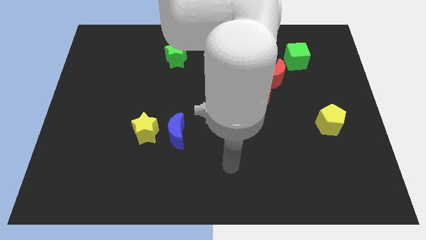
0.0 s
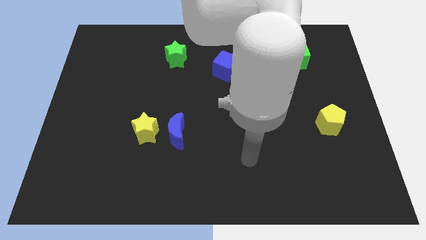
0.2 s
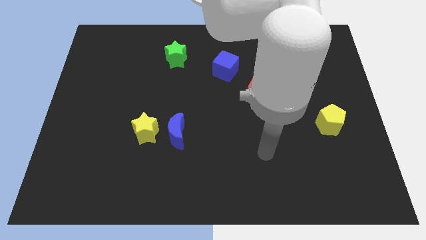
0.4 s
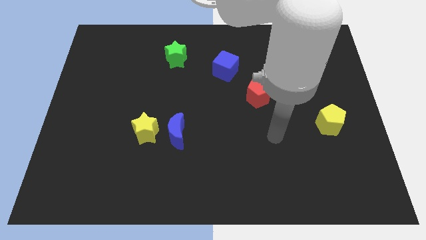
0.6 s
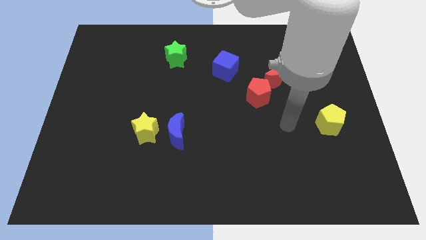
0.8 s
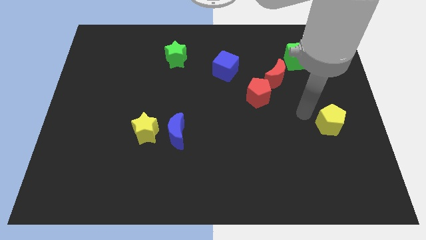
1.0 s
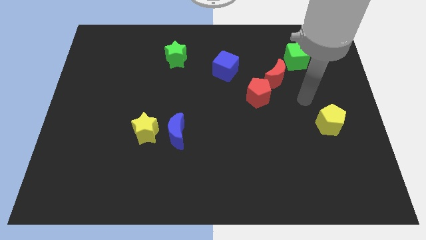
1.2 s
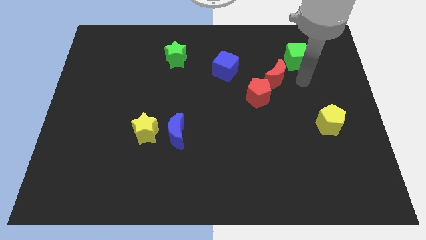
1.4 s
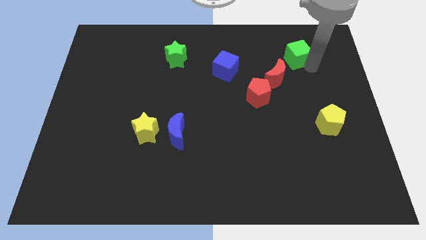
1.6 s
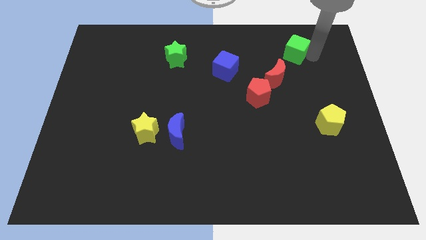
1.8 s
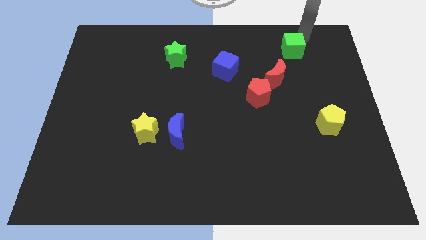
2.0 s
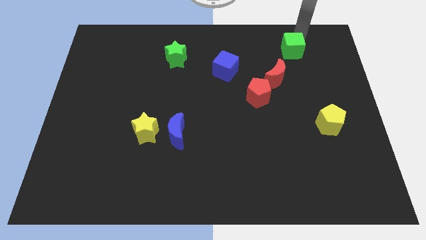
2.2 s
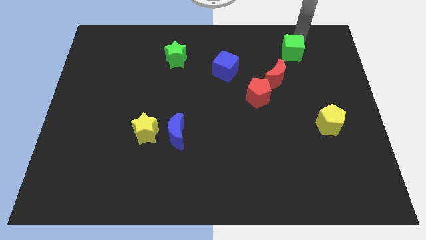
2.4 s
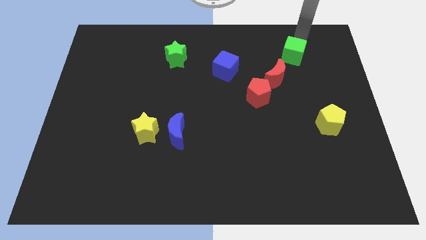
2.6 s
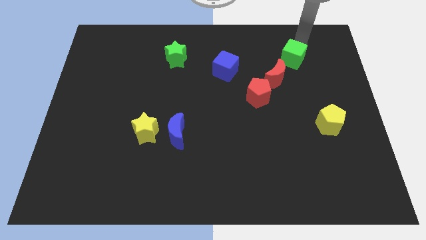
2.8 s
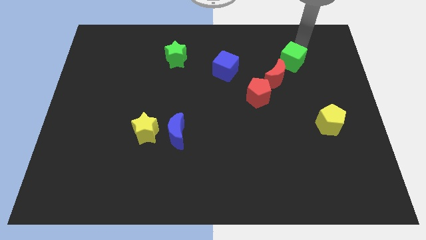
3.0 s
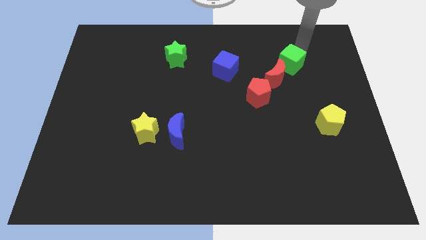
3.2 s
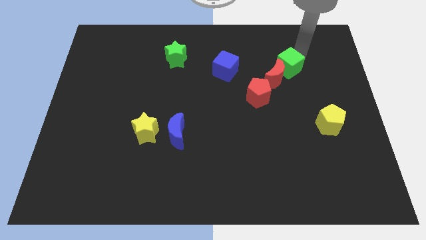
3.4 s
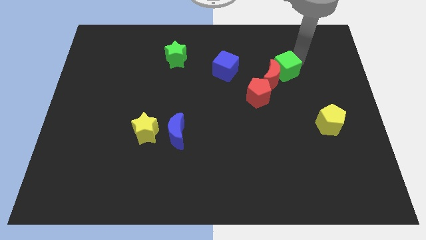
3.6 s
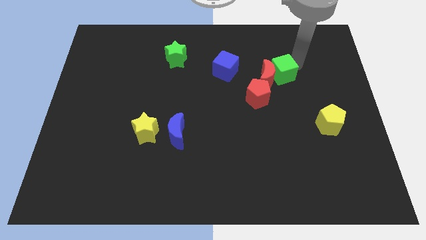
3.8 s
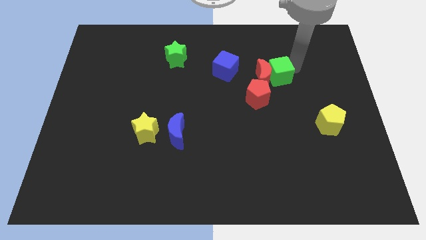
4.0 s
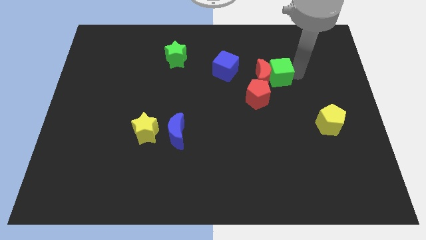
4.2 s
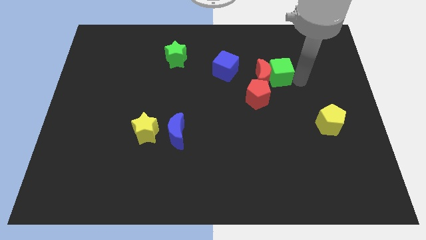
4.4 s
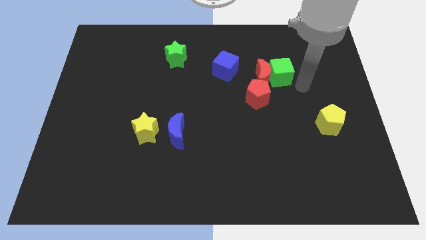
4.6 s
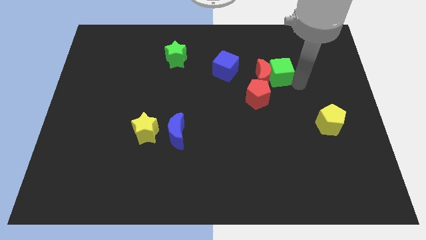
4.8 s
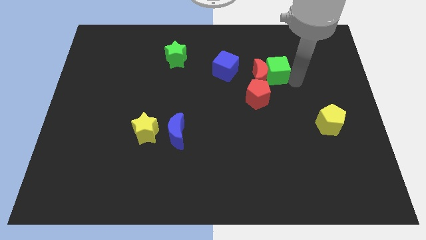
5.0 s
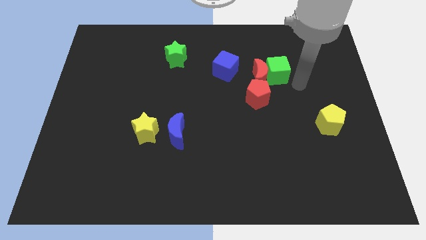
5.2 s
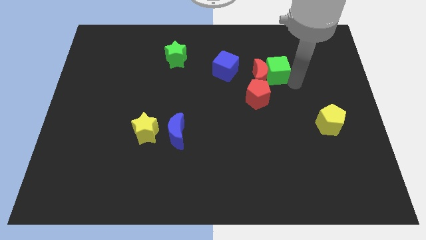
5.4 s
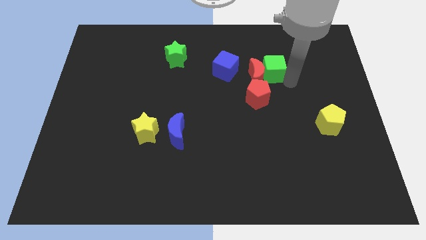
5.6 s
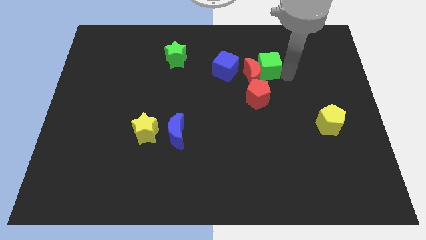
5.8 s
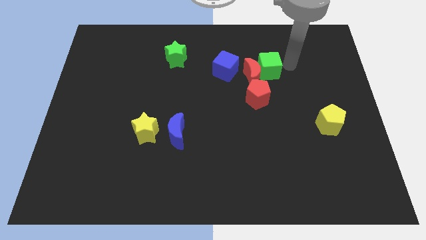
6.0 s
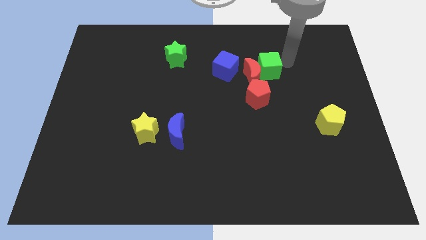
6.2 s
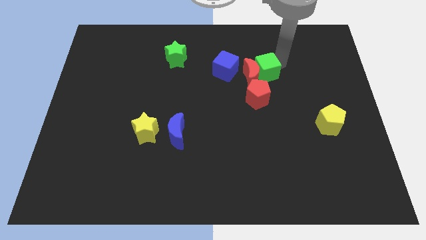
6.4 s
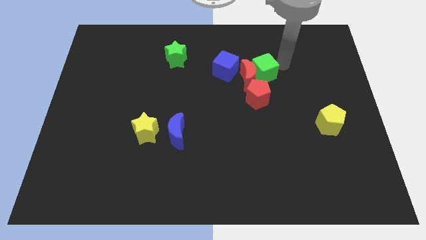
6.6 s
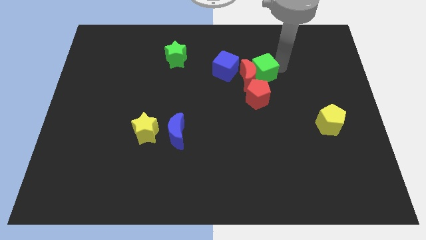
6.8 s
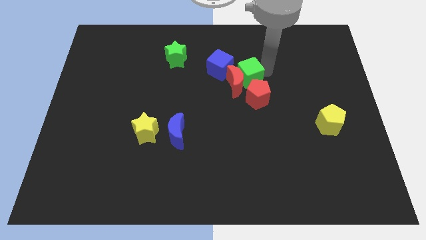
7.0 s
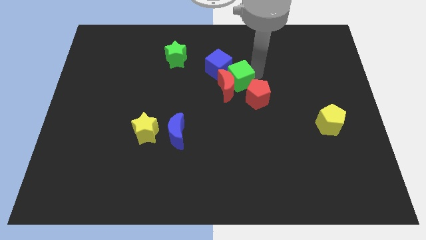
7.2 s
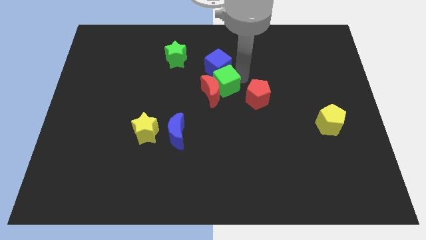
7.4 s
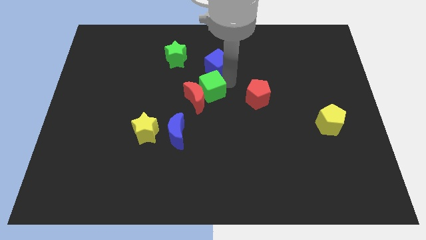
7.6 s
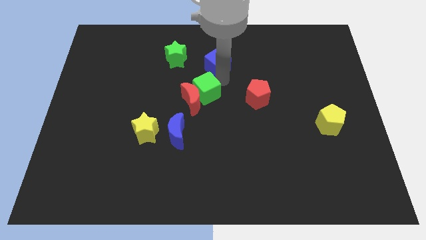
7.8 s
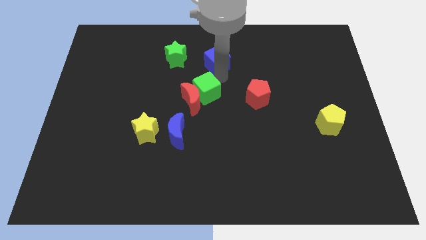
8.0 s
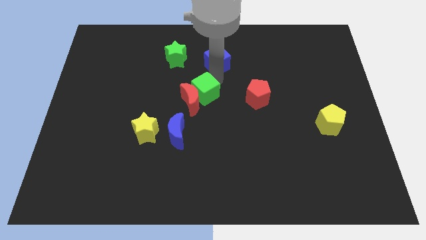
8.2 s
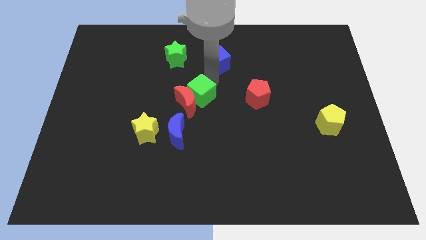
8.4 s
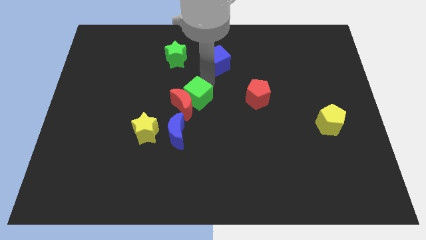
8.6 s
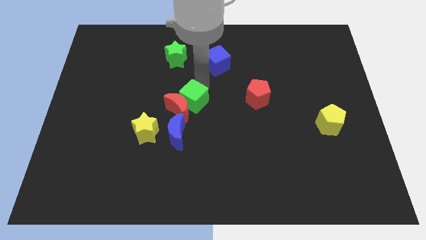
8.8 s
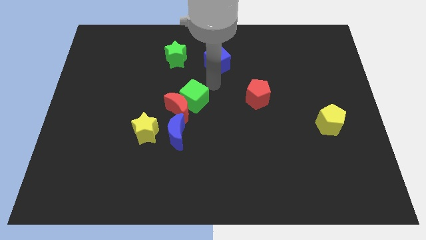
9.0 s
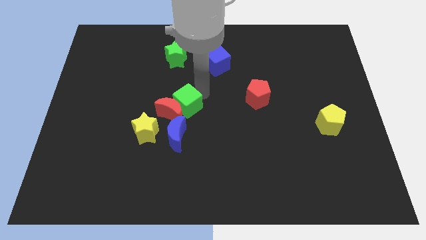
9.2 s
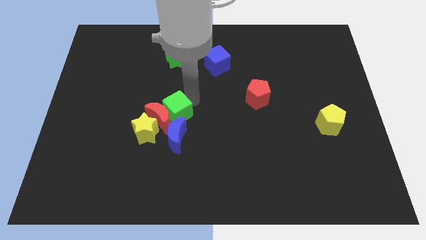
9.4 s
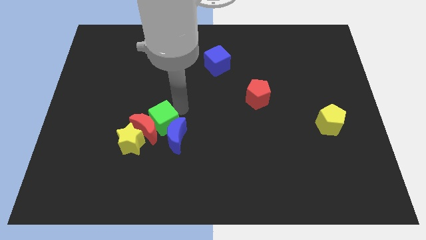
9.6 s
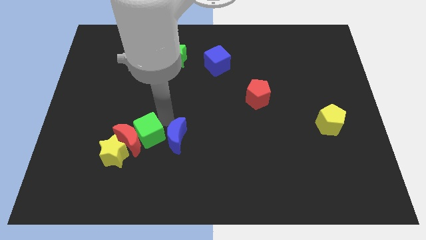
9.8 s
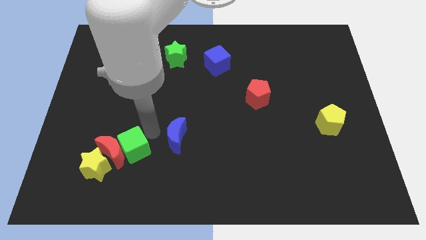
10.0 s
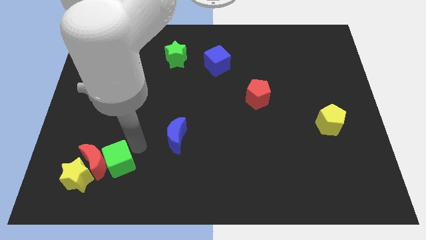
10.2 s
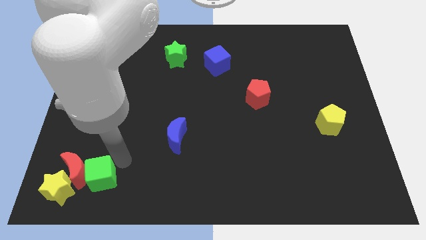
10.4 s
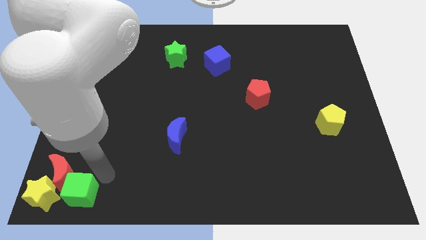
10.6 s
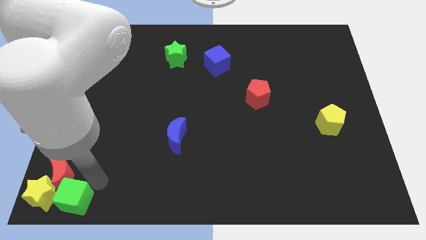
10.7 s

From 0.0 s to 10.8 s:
push the green cube towards the yellow star

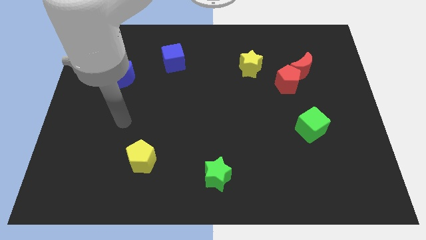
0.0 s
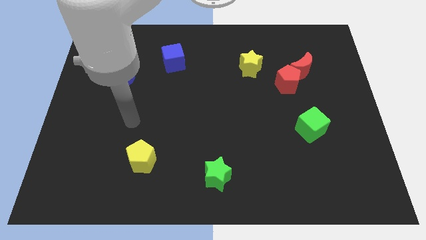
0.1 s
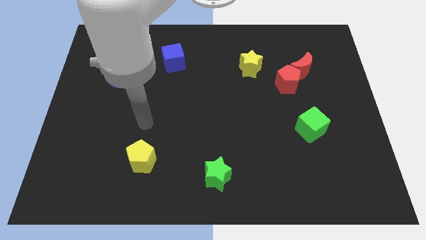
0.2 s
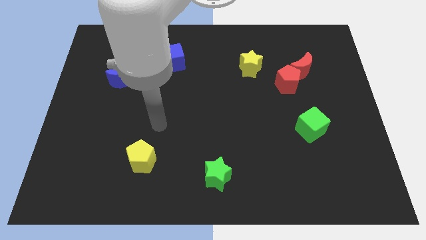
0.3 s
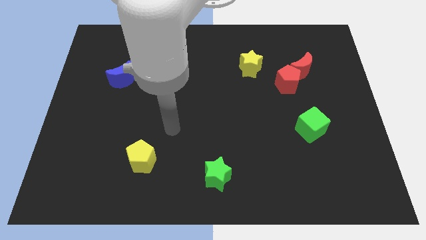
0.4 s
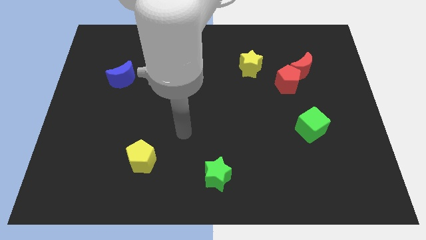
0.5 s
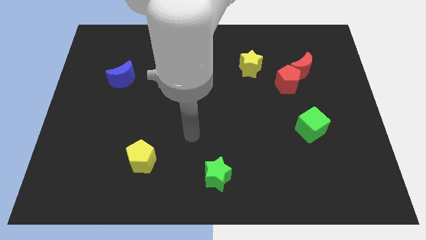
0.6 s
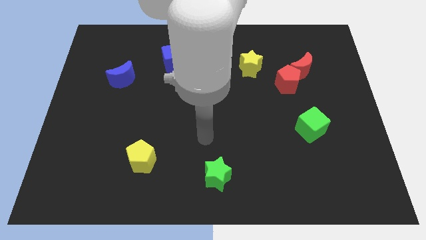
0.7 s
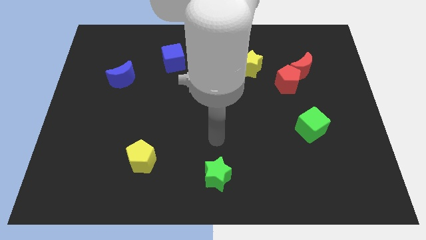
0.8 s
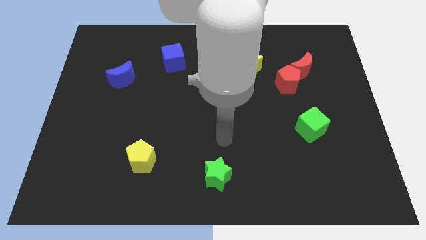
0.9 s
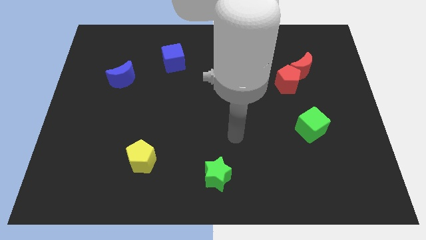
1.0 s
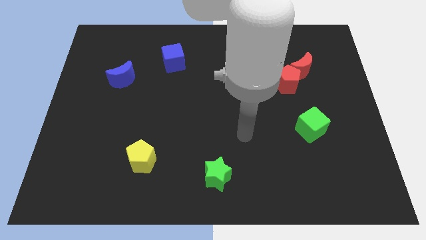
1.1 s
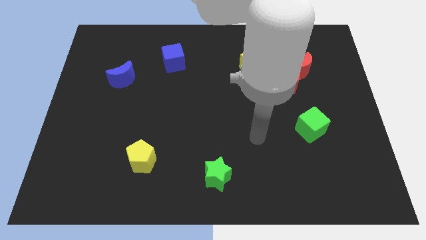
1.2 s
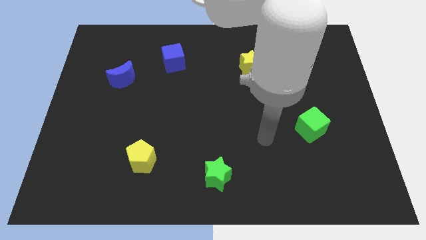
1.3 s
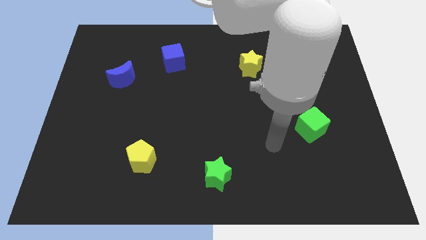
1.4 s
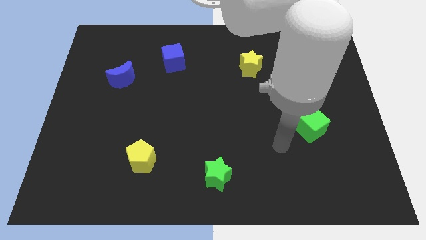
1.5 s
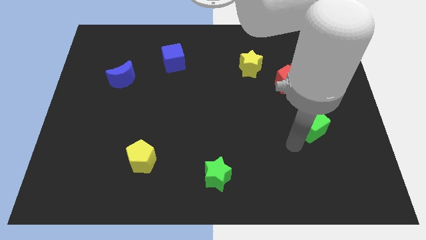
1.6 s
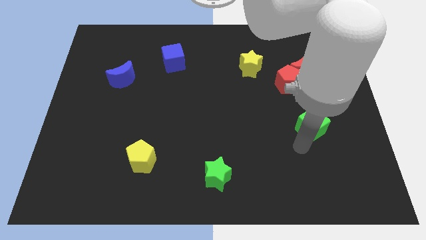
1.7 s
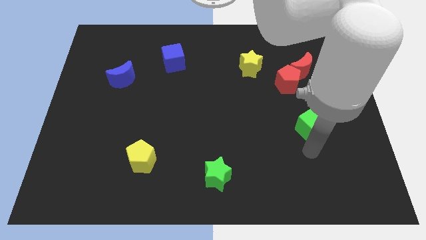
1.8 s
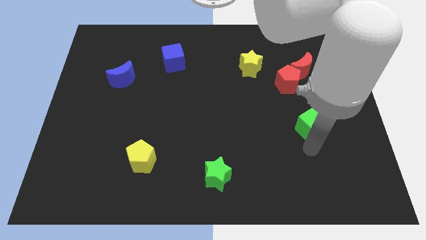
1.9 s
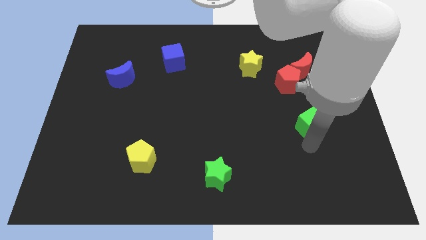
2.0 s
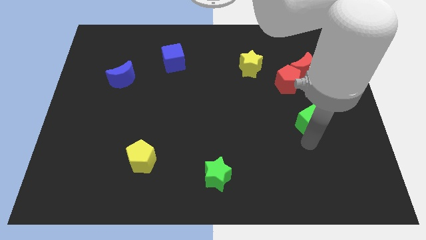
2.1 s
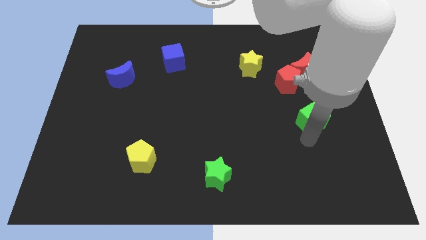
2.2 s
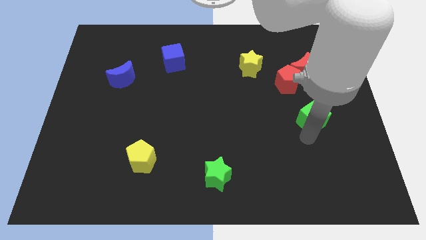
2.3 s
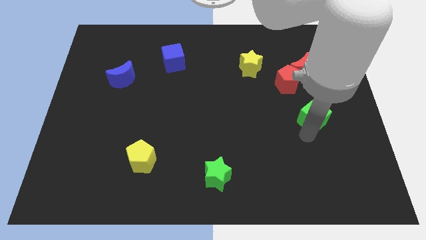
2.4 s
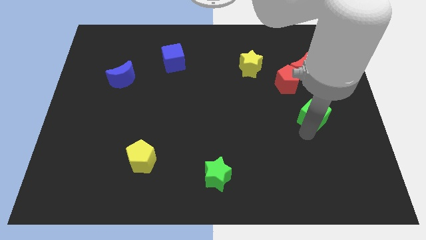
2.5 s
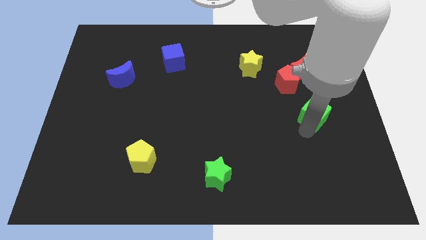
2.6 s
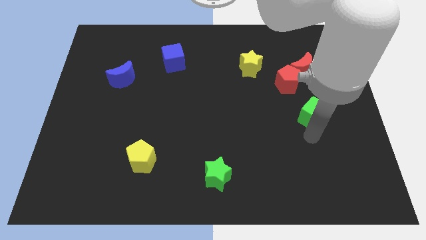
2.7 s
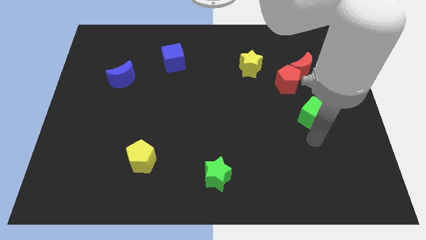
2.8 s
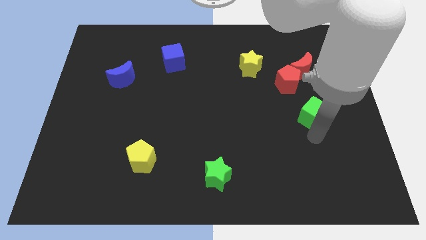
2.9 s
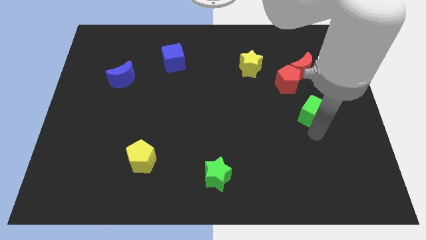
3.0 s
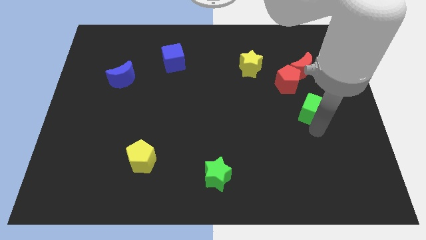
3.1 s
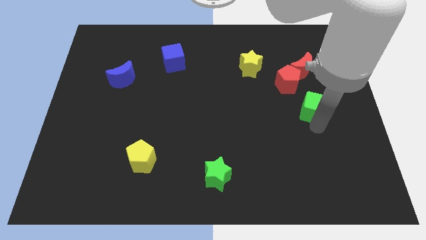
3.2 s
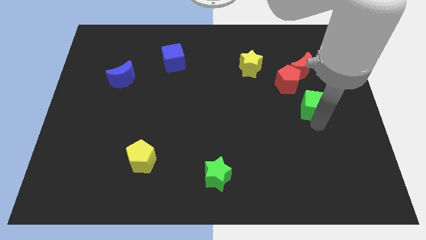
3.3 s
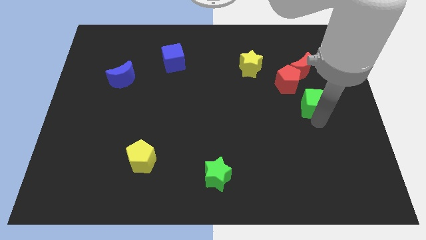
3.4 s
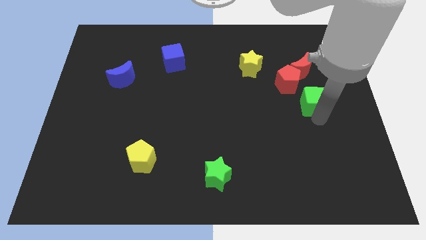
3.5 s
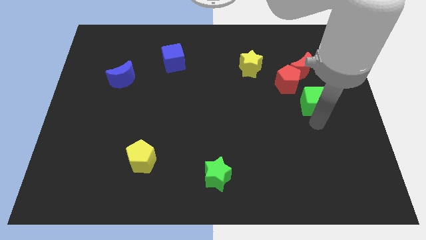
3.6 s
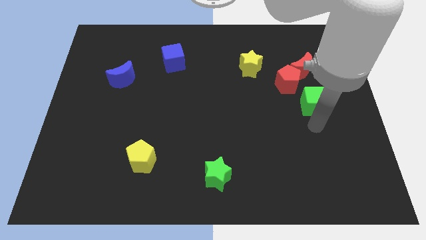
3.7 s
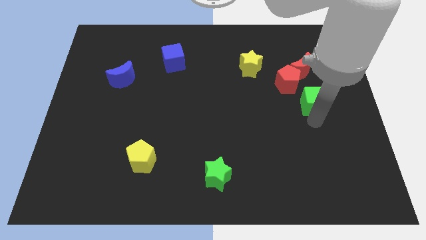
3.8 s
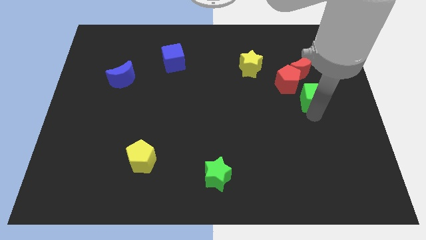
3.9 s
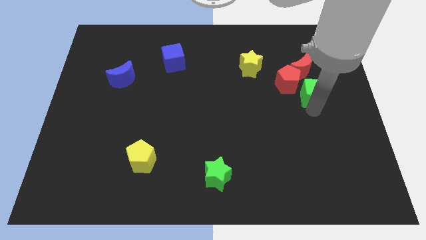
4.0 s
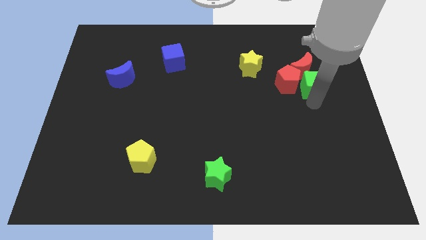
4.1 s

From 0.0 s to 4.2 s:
push the green cube close to the red moon
